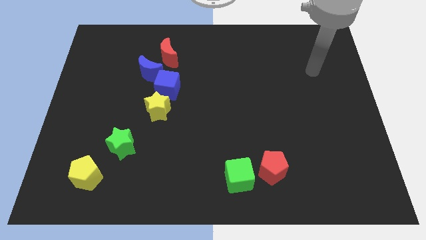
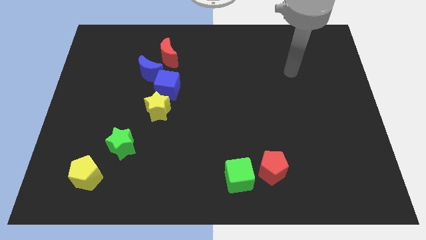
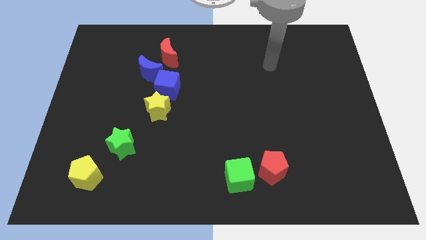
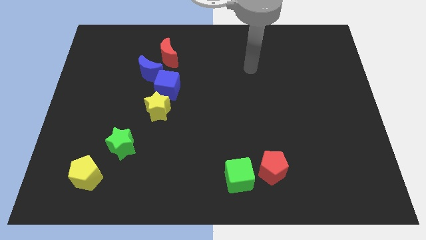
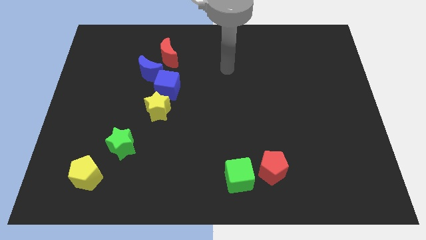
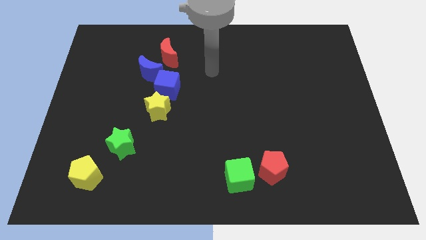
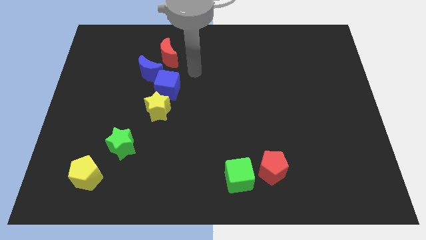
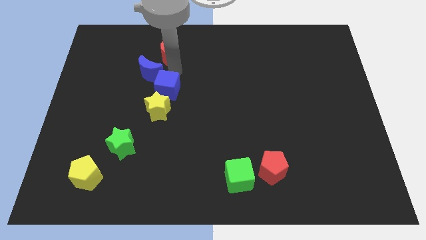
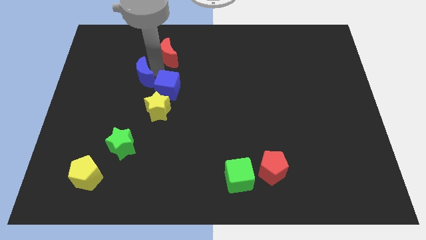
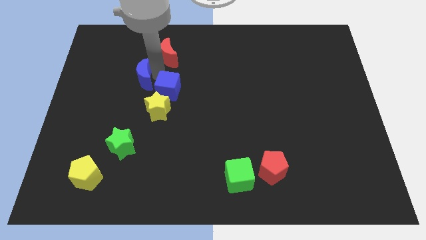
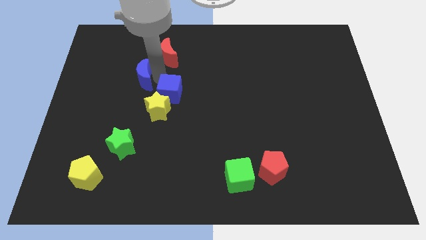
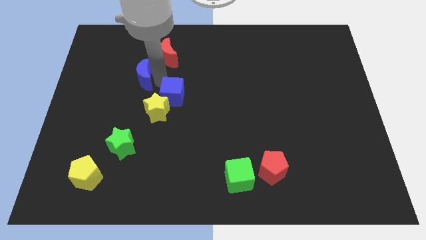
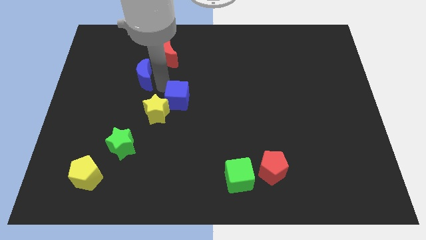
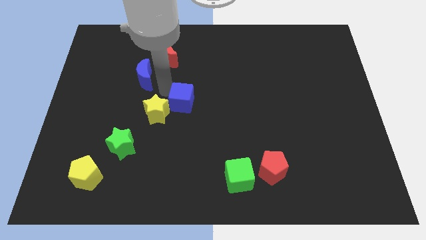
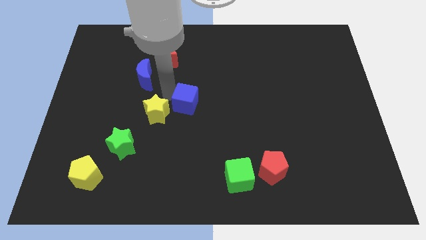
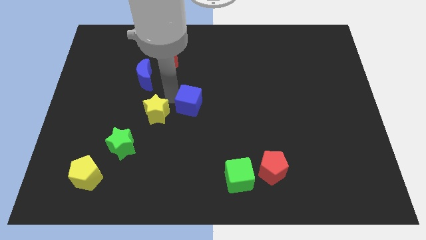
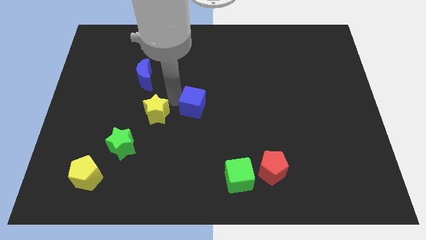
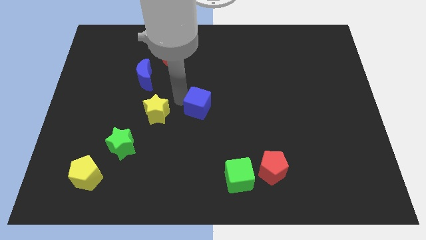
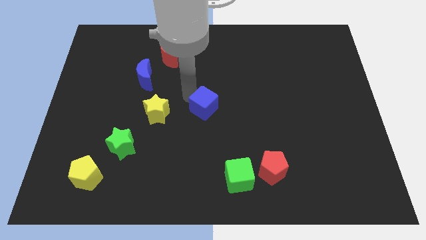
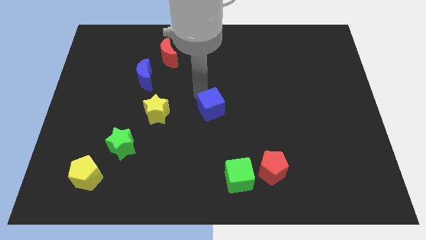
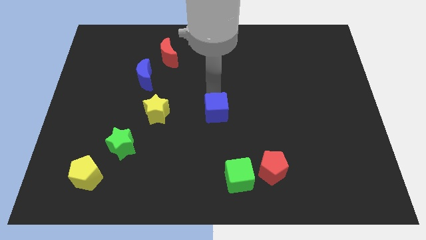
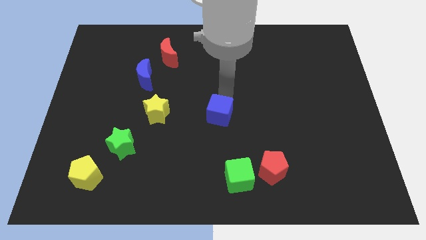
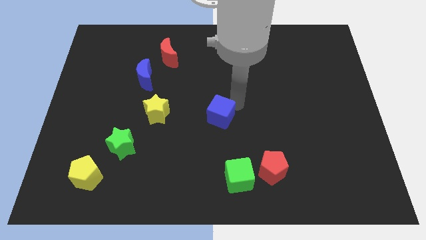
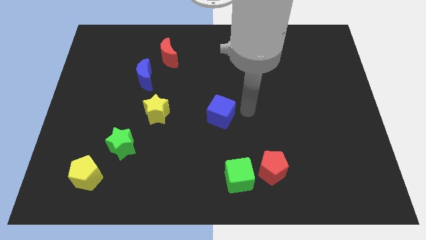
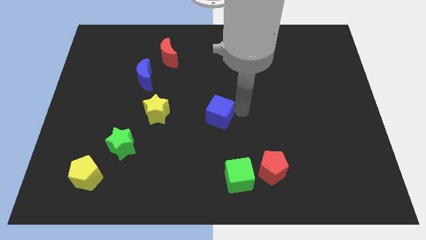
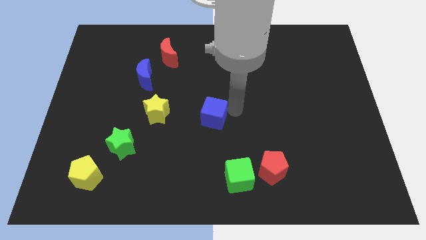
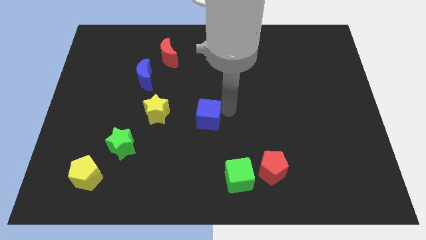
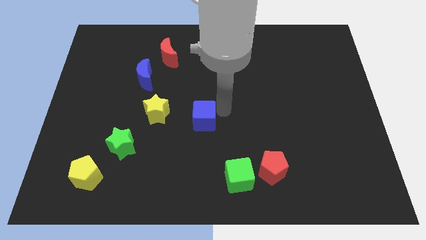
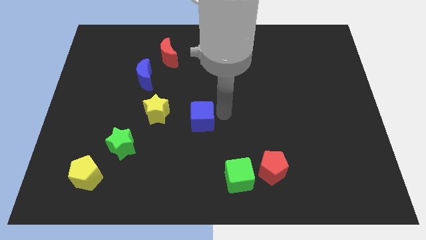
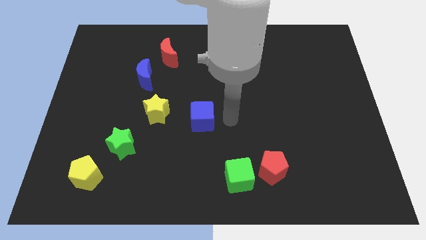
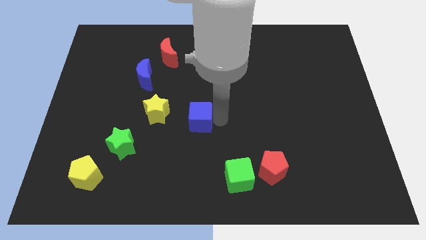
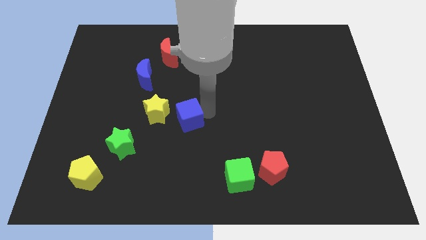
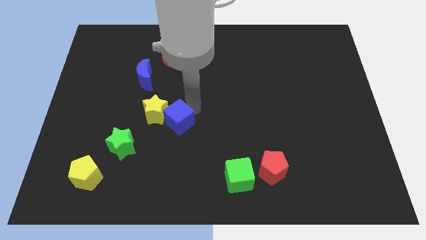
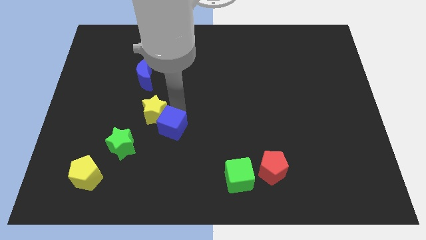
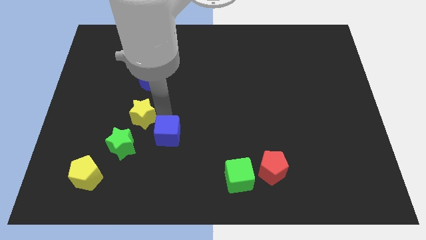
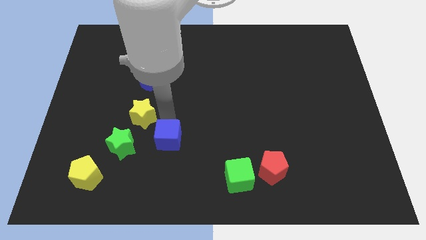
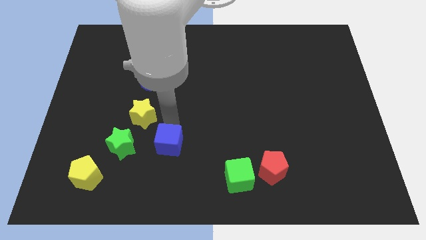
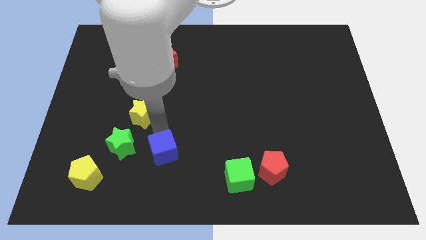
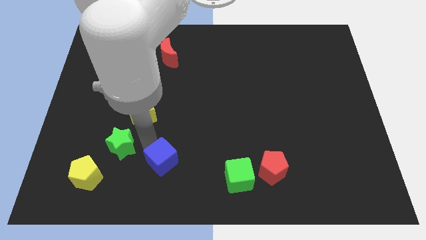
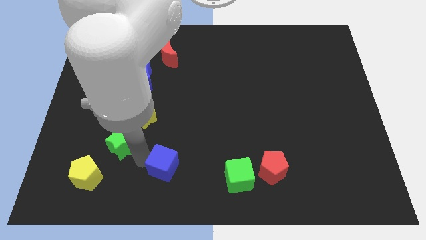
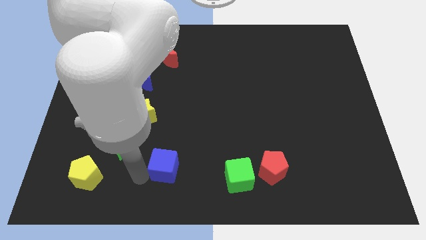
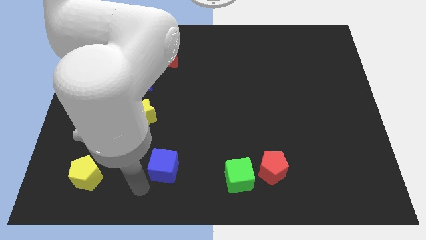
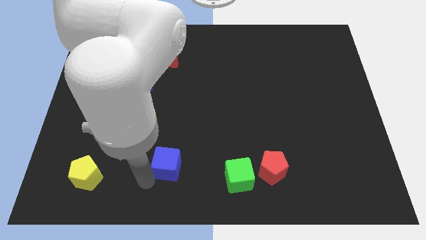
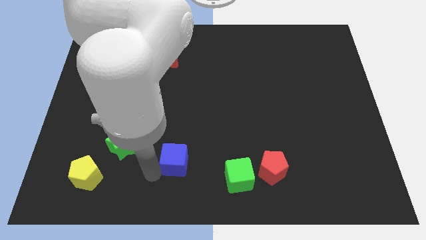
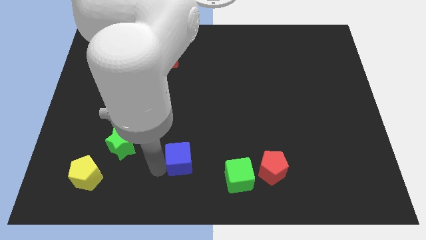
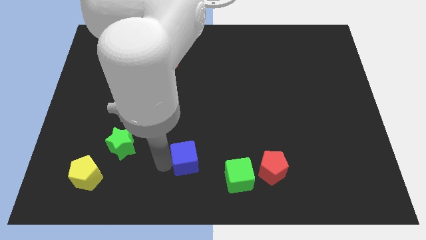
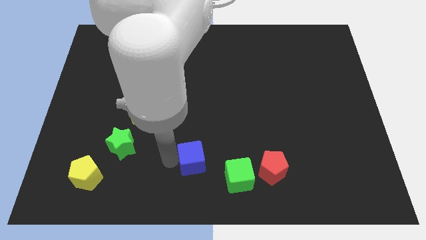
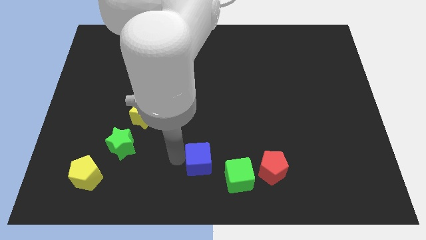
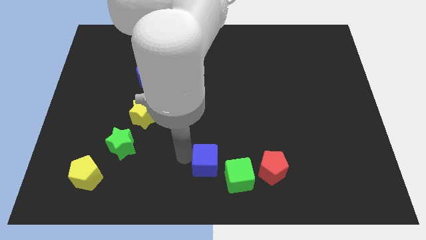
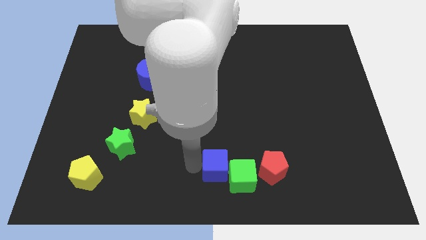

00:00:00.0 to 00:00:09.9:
move the blue cube to the green cube

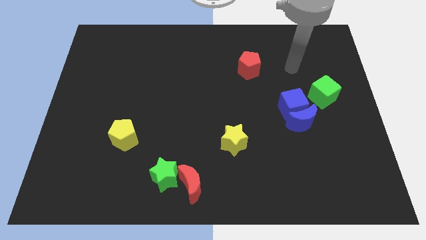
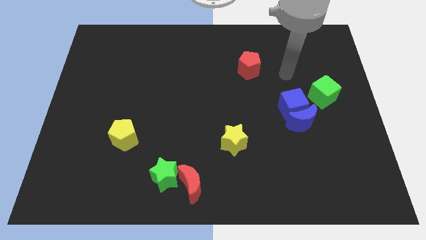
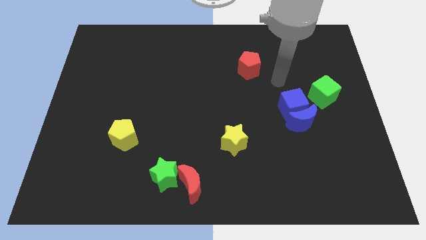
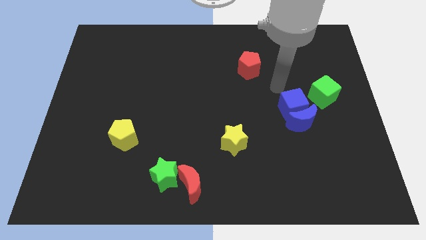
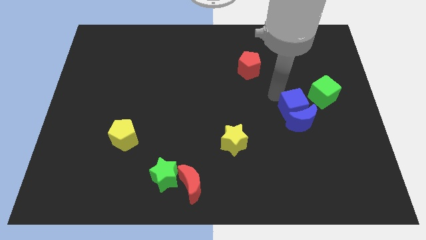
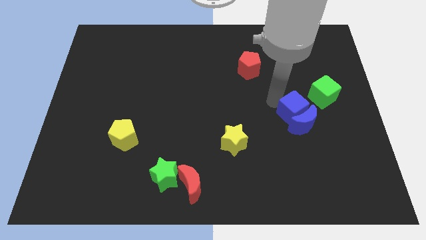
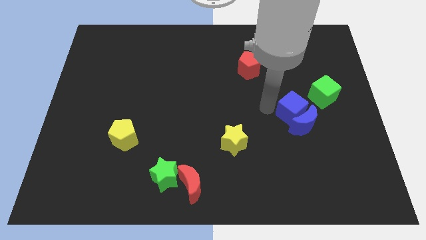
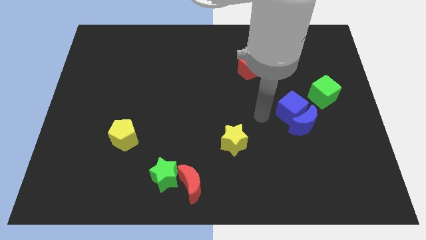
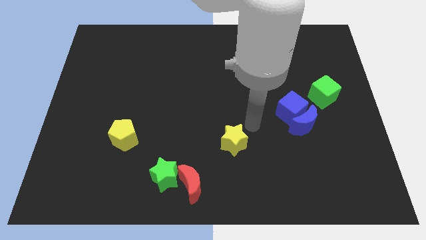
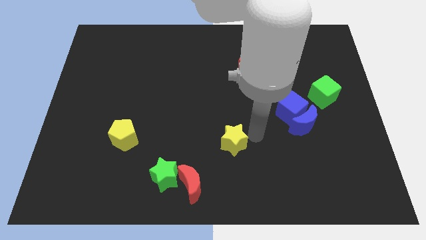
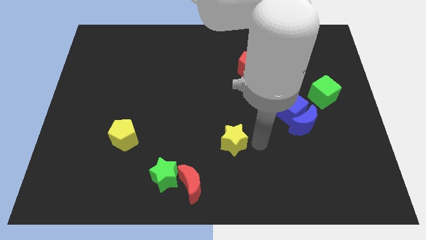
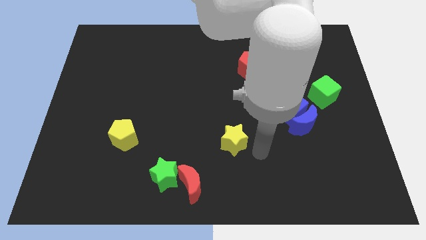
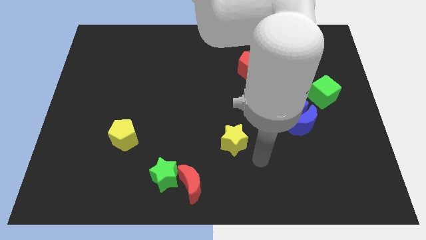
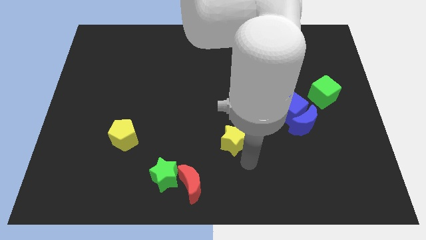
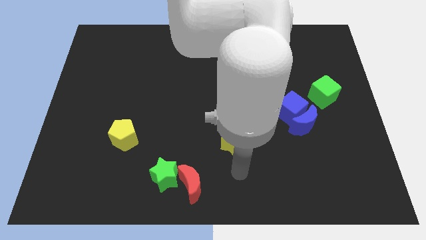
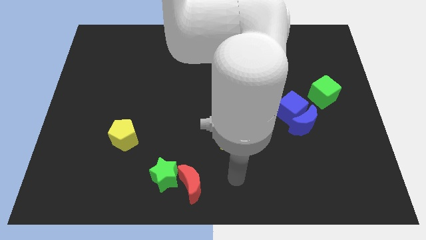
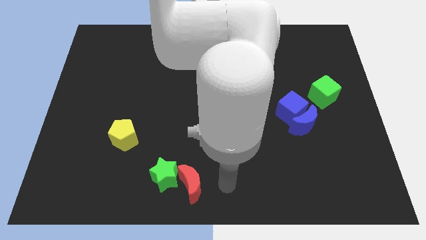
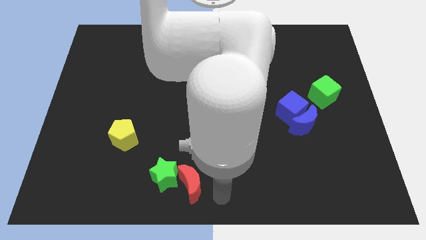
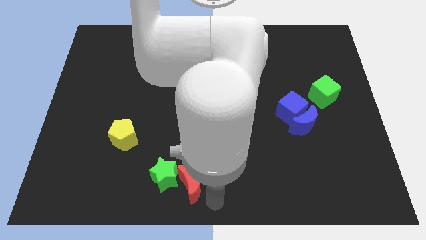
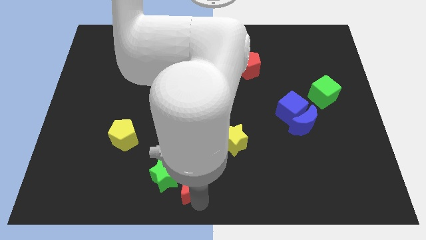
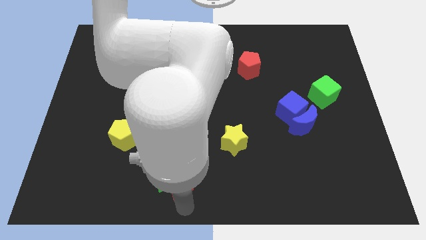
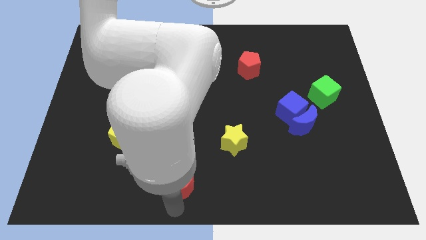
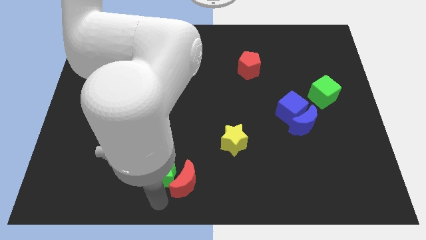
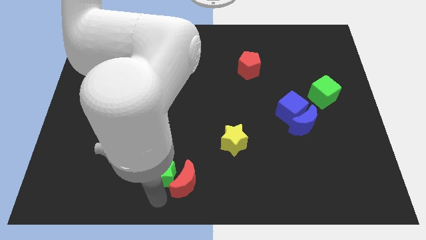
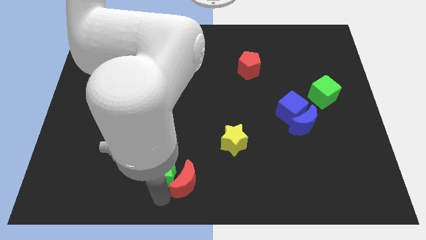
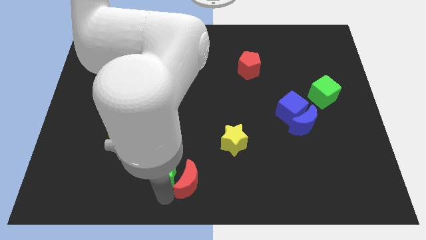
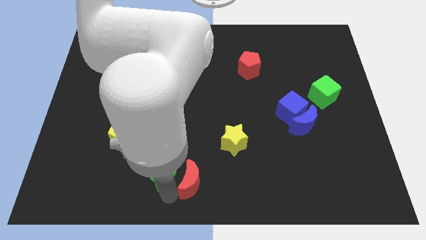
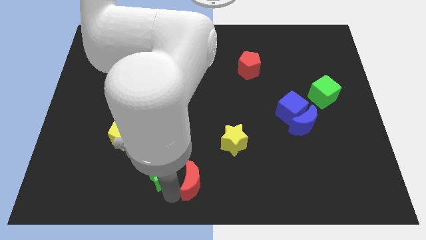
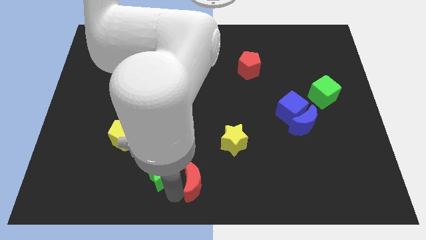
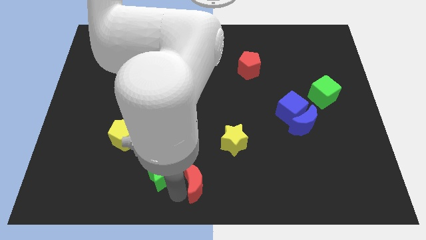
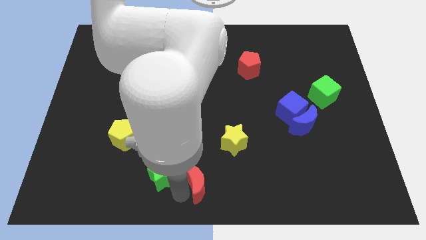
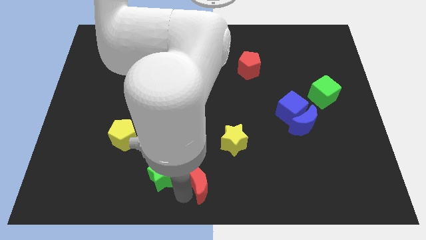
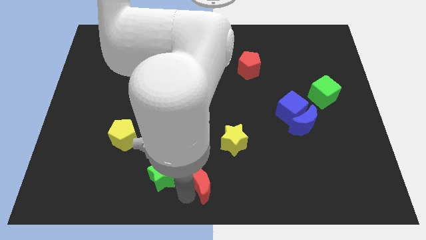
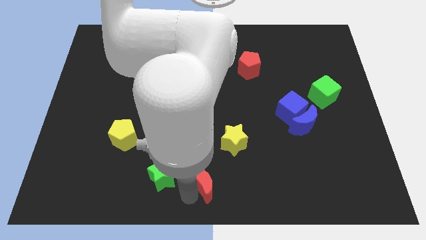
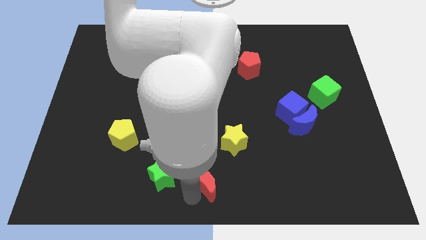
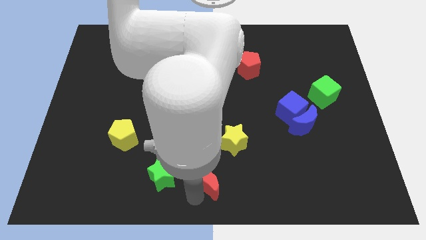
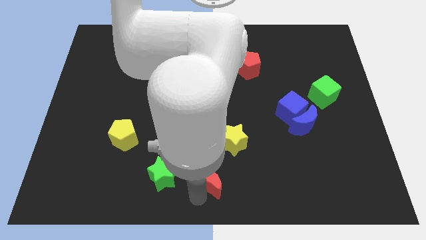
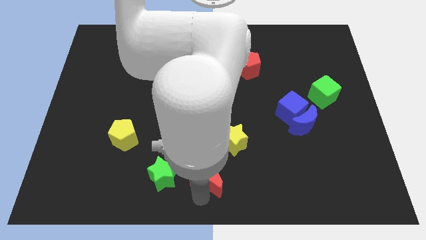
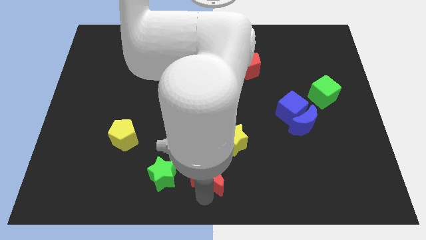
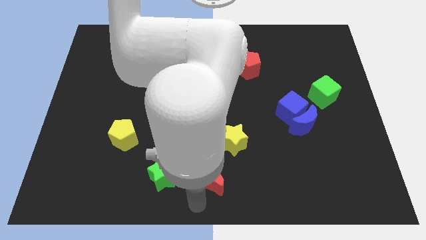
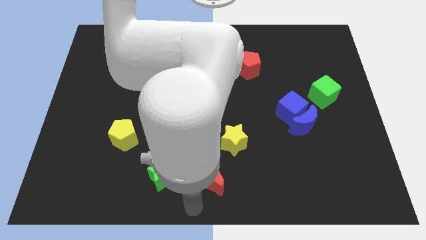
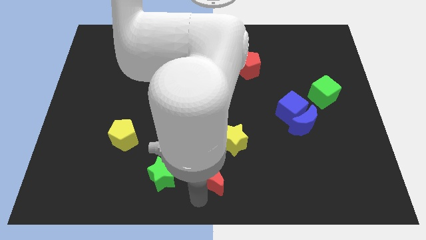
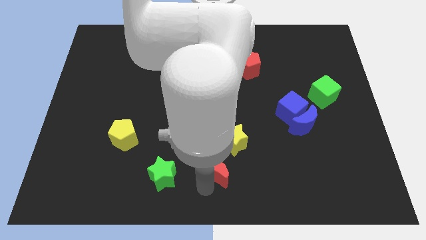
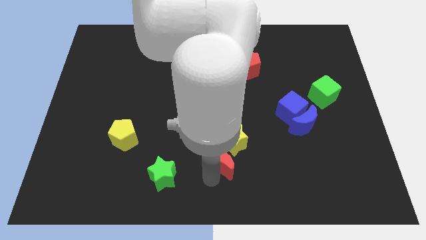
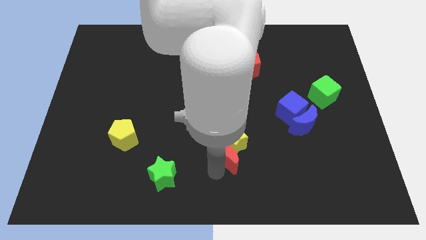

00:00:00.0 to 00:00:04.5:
slide the red moon to the yellow star
